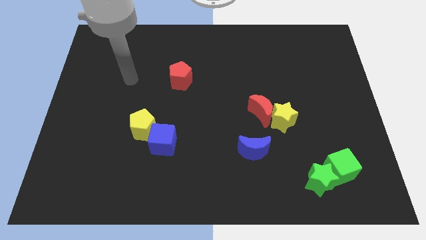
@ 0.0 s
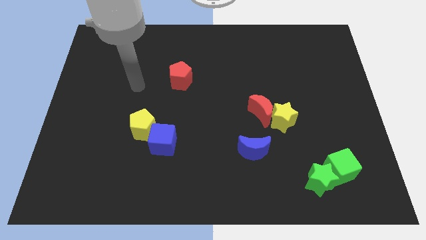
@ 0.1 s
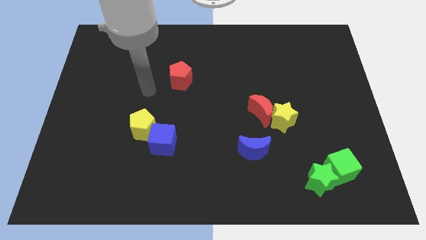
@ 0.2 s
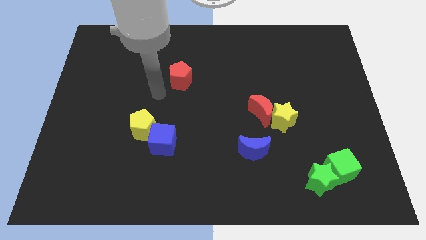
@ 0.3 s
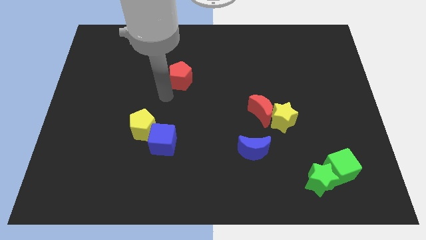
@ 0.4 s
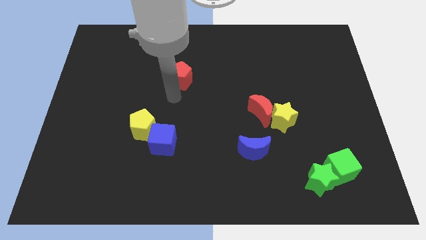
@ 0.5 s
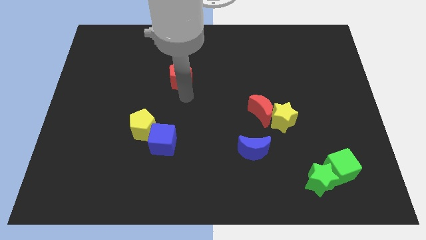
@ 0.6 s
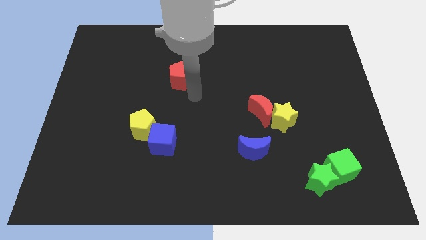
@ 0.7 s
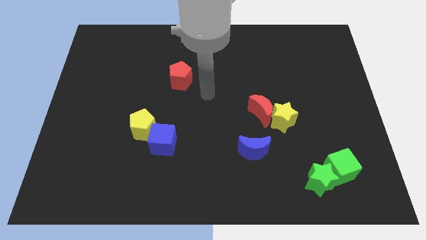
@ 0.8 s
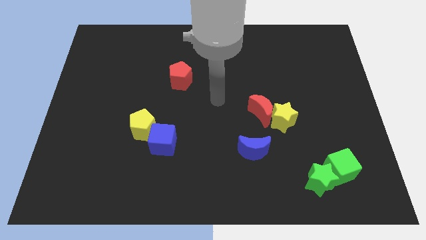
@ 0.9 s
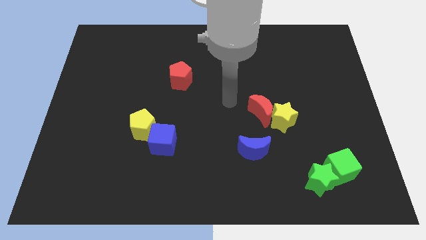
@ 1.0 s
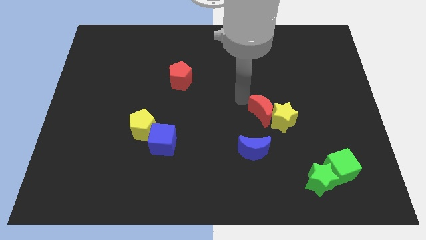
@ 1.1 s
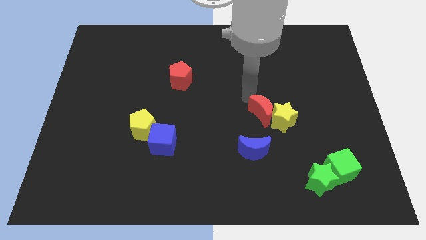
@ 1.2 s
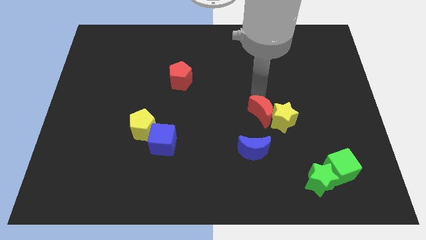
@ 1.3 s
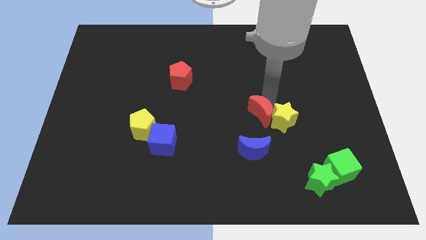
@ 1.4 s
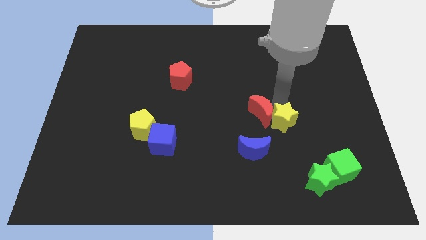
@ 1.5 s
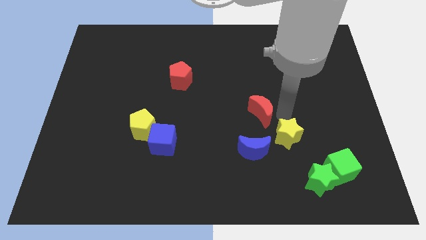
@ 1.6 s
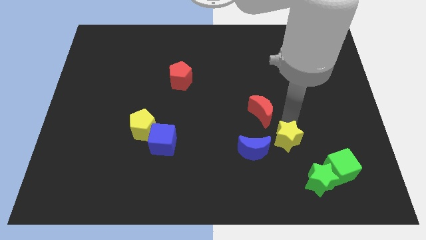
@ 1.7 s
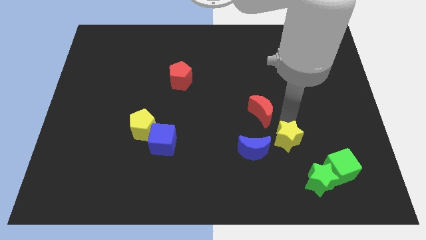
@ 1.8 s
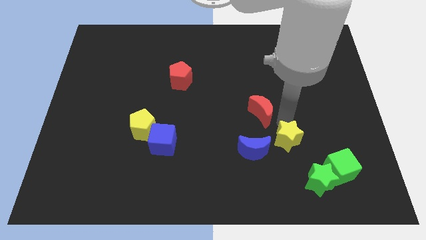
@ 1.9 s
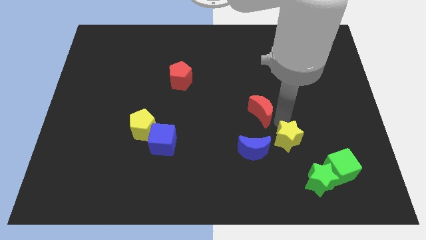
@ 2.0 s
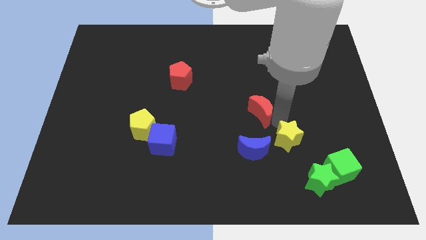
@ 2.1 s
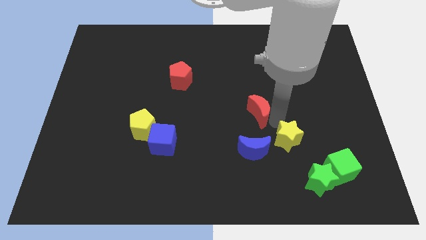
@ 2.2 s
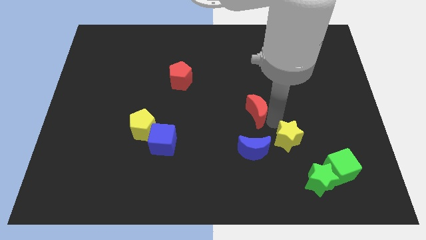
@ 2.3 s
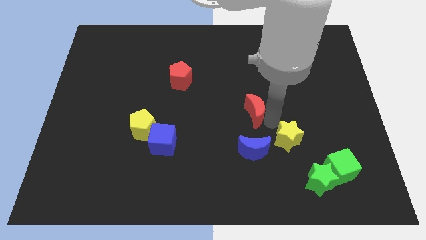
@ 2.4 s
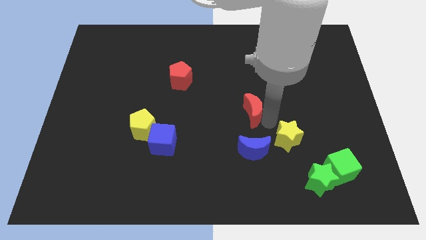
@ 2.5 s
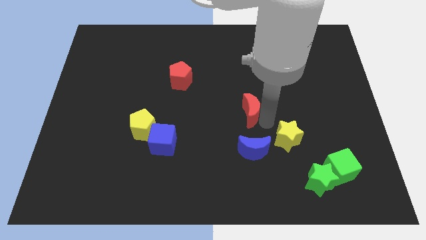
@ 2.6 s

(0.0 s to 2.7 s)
separate the red moon from the yellow star

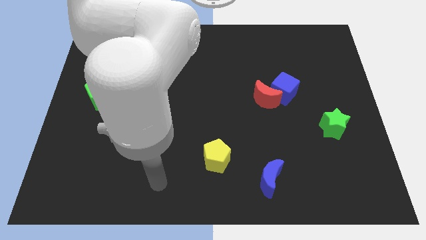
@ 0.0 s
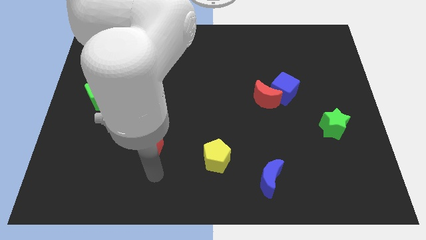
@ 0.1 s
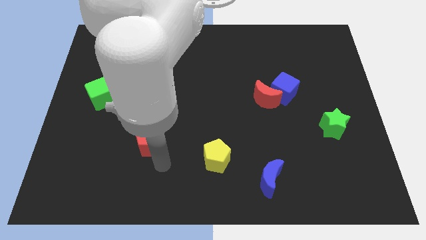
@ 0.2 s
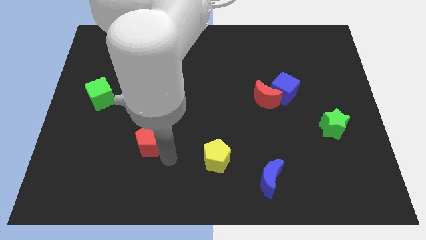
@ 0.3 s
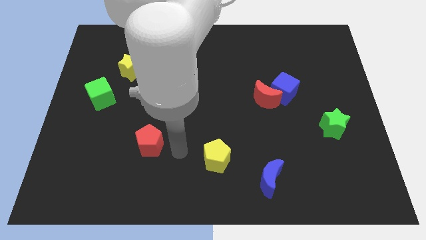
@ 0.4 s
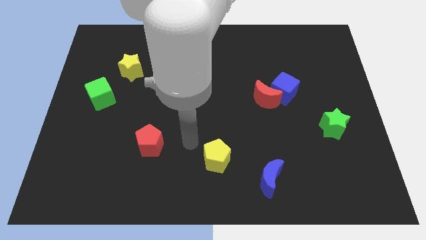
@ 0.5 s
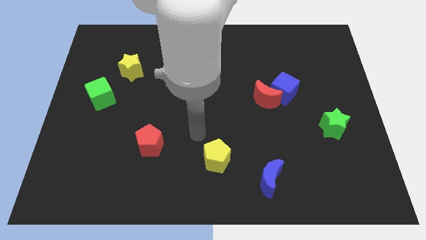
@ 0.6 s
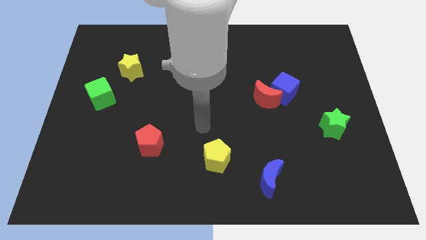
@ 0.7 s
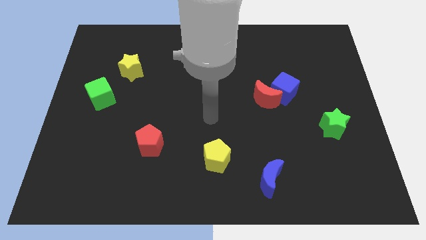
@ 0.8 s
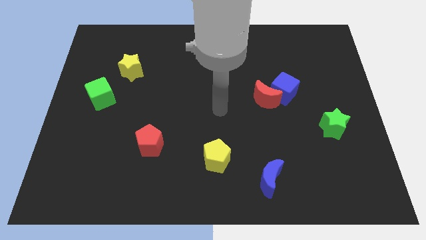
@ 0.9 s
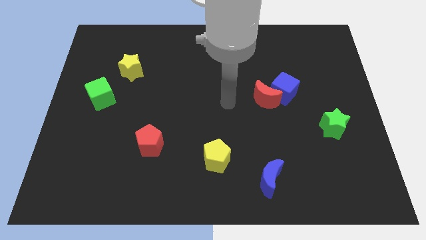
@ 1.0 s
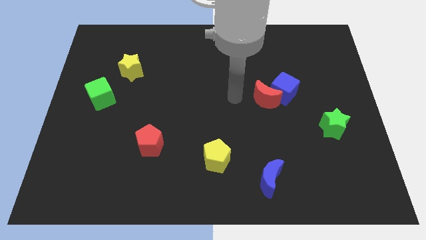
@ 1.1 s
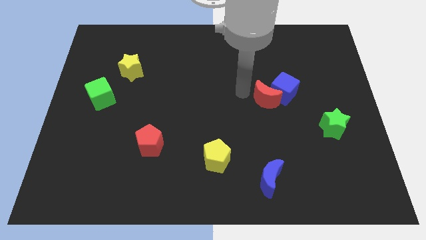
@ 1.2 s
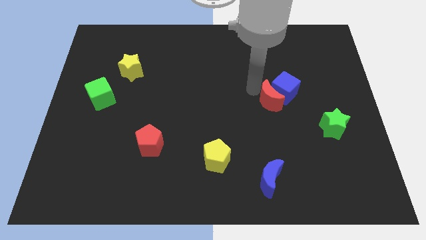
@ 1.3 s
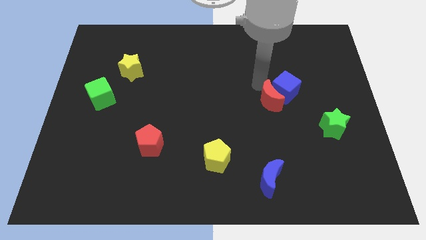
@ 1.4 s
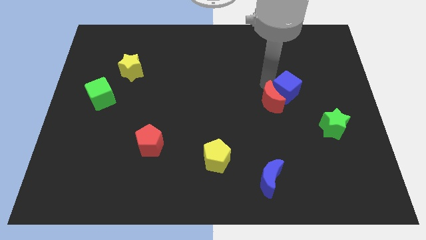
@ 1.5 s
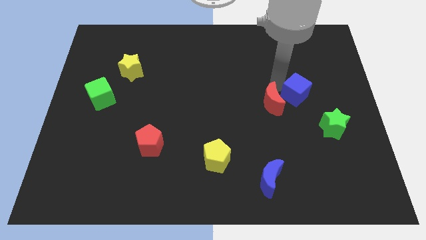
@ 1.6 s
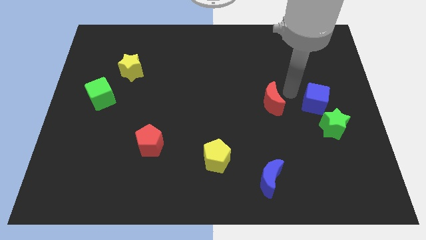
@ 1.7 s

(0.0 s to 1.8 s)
separate the red moon from the blue cube

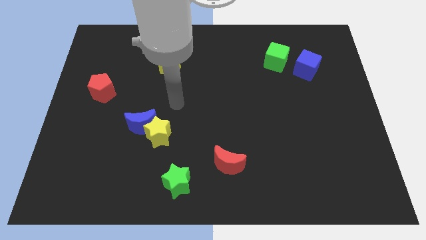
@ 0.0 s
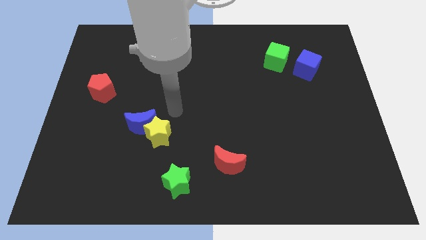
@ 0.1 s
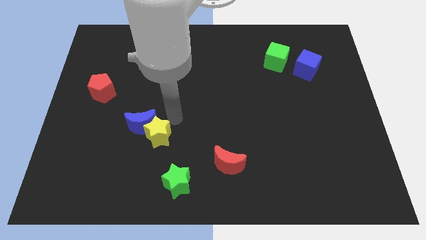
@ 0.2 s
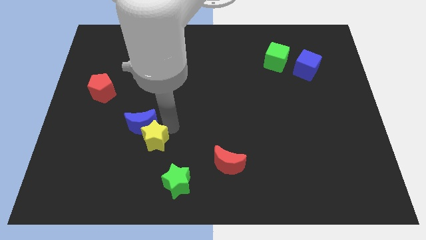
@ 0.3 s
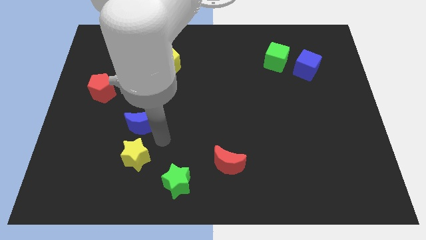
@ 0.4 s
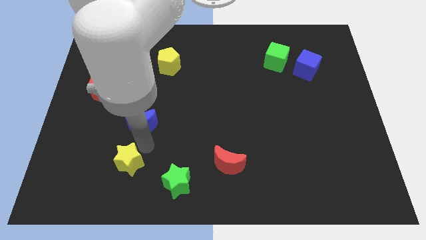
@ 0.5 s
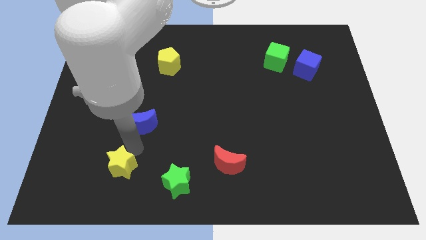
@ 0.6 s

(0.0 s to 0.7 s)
pull the blue moon apart from the yellow star

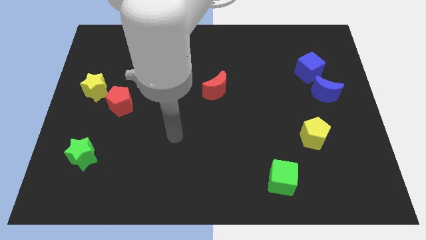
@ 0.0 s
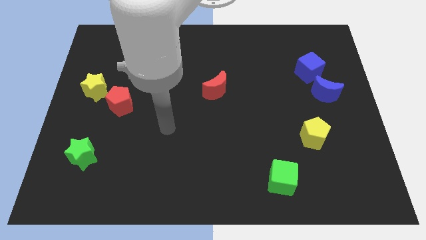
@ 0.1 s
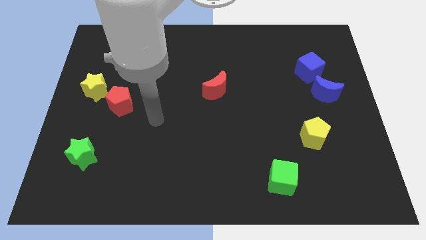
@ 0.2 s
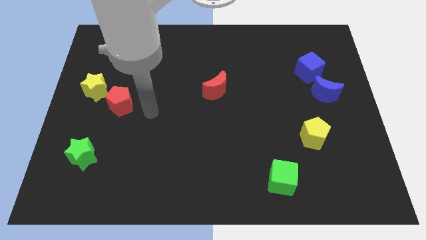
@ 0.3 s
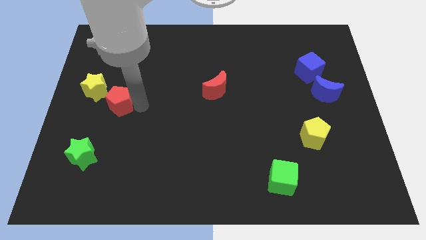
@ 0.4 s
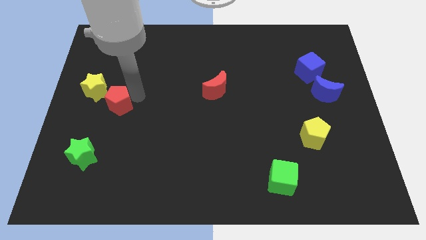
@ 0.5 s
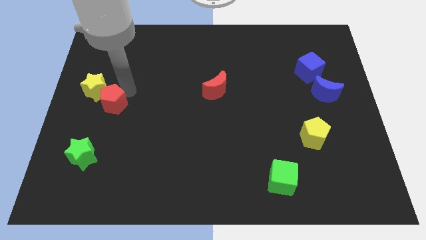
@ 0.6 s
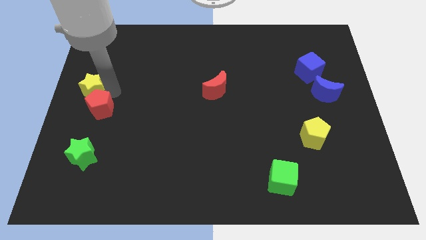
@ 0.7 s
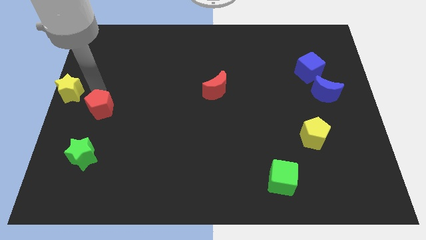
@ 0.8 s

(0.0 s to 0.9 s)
separate the red pentagon from the yellow star

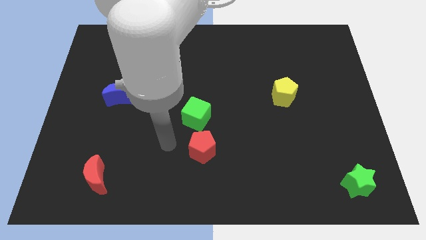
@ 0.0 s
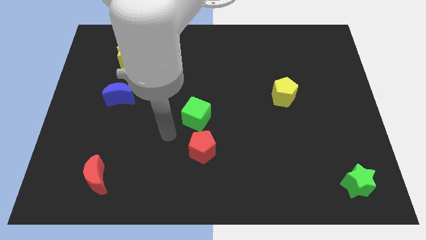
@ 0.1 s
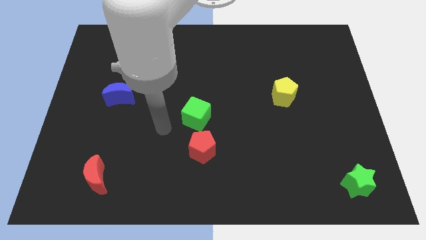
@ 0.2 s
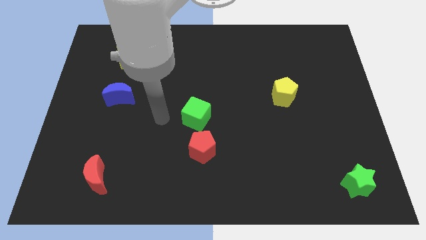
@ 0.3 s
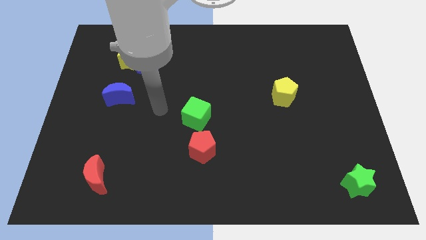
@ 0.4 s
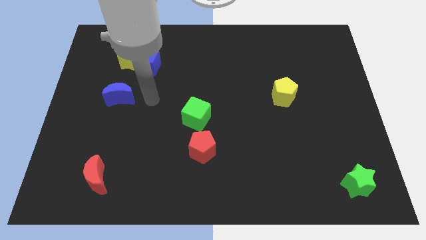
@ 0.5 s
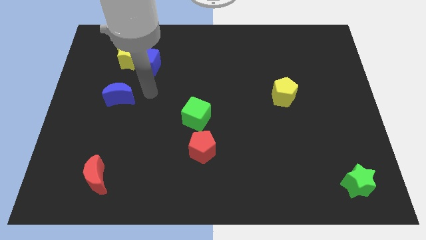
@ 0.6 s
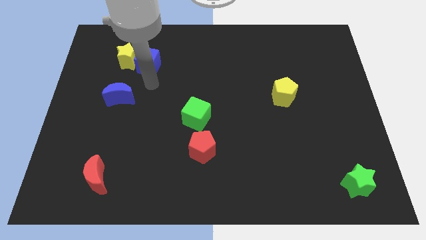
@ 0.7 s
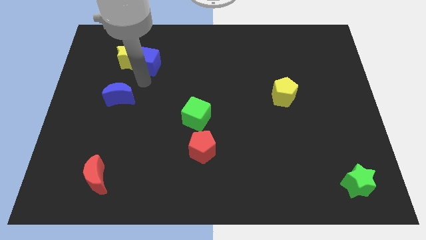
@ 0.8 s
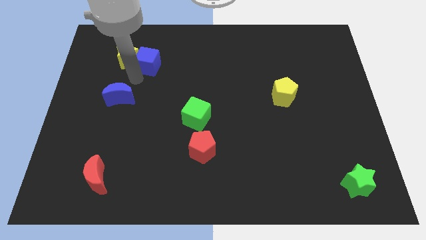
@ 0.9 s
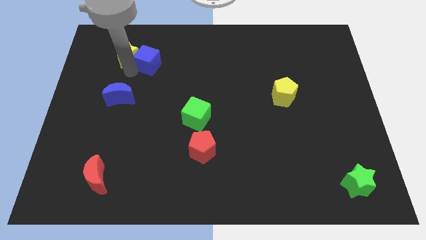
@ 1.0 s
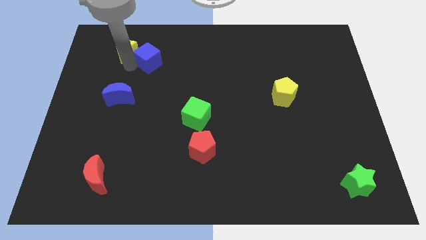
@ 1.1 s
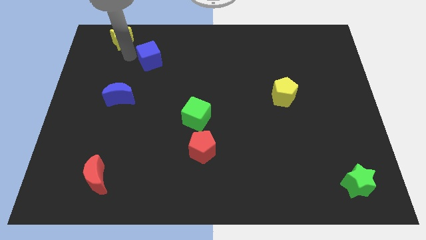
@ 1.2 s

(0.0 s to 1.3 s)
pull the blue cube apart from the yellow star

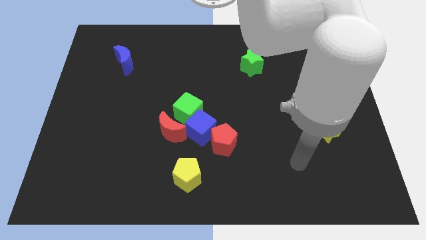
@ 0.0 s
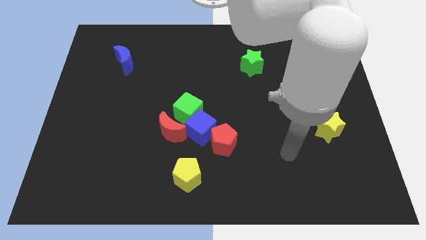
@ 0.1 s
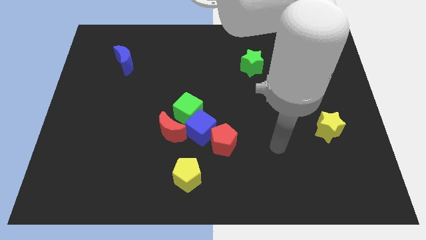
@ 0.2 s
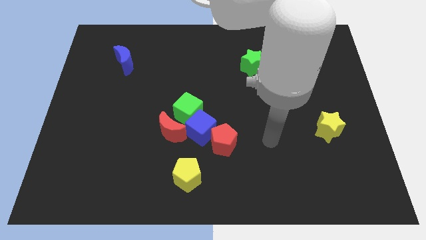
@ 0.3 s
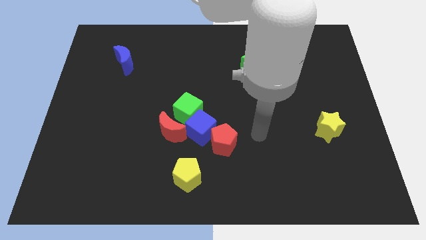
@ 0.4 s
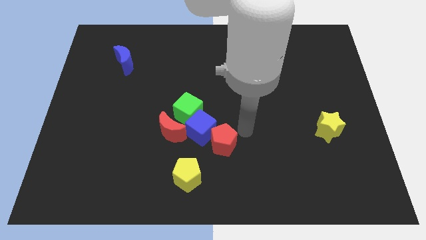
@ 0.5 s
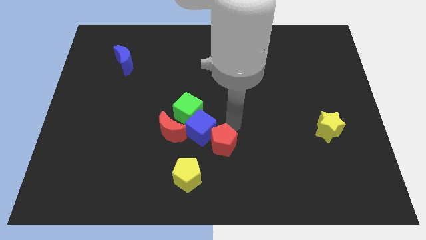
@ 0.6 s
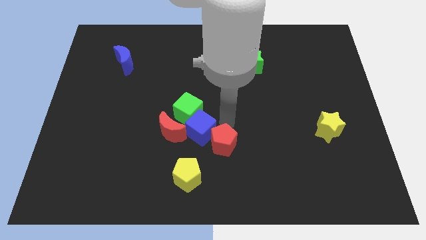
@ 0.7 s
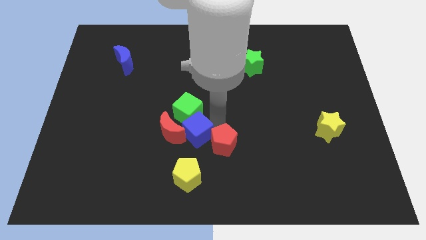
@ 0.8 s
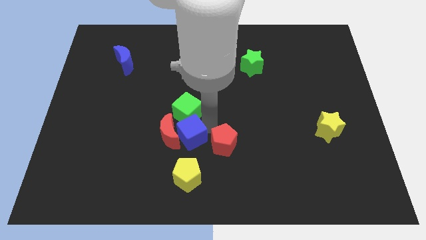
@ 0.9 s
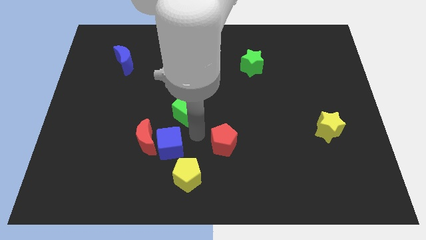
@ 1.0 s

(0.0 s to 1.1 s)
move the red pentagon away from the blue cube

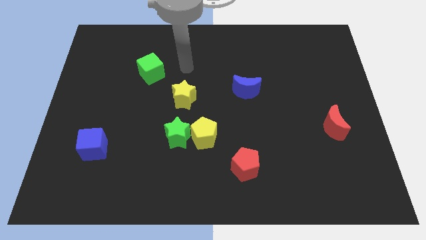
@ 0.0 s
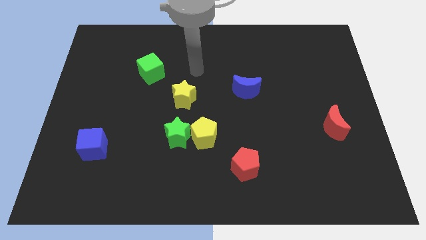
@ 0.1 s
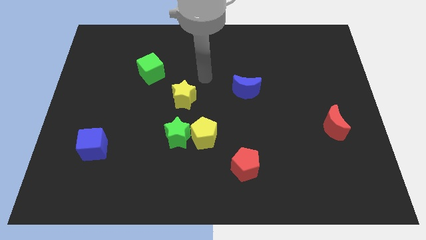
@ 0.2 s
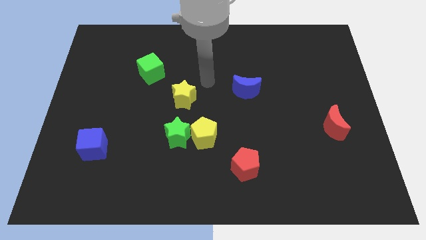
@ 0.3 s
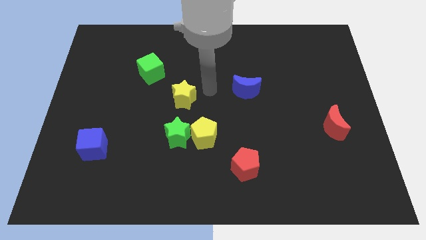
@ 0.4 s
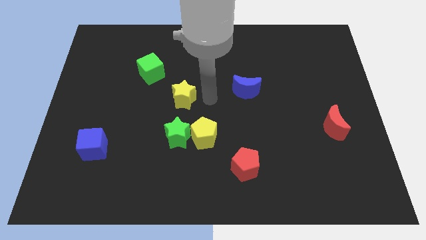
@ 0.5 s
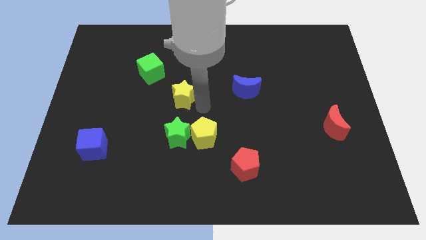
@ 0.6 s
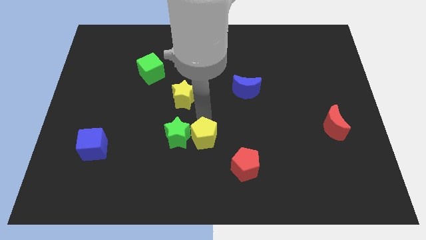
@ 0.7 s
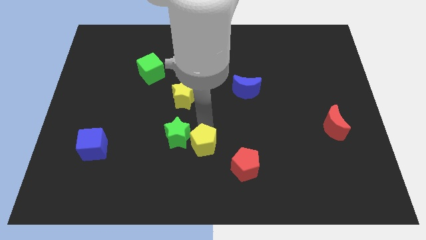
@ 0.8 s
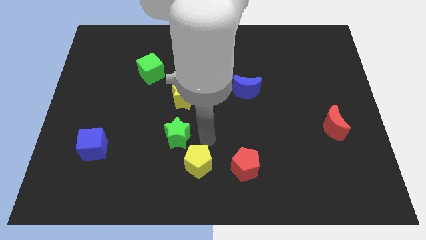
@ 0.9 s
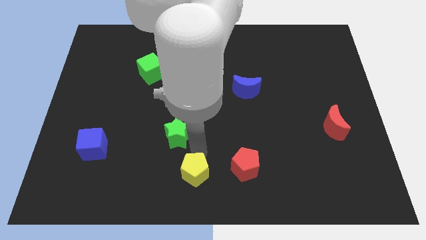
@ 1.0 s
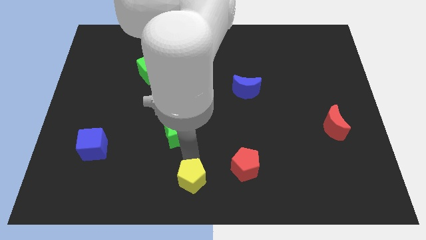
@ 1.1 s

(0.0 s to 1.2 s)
separate the green star from the yellow pentagon
